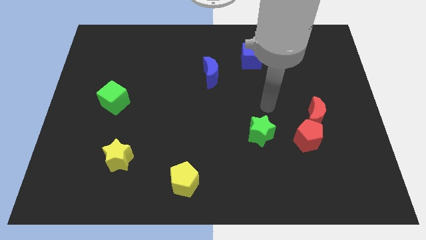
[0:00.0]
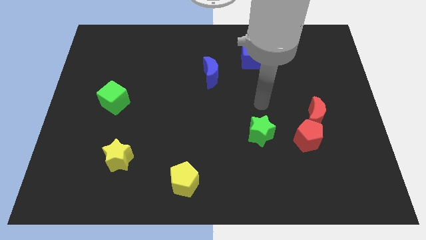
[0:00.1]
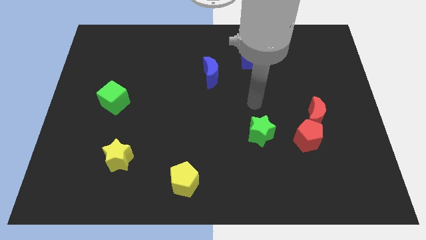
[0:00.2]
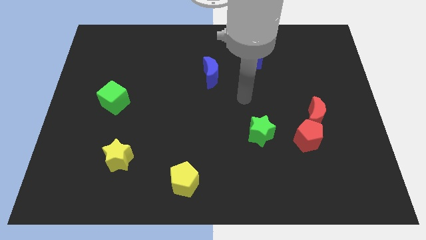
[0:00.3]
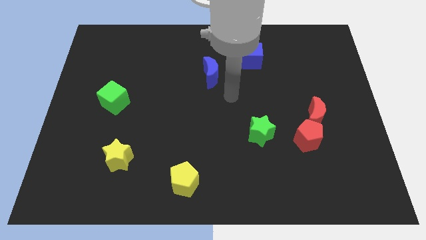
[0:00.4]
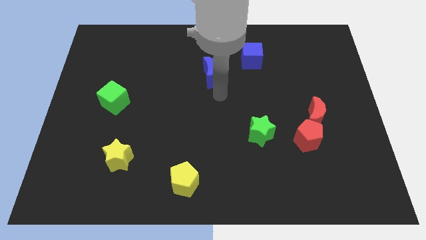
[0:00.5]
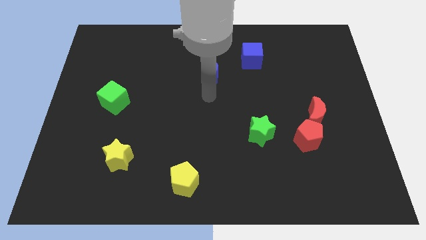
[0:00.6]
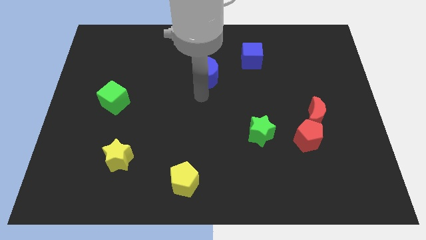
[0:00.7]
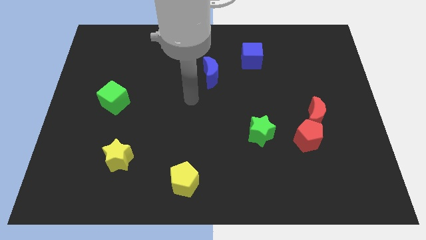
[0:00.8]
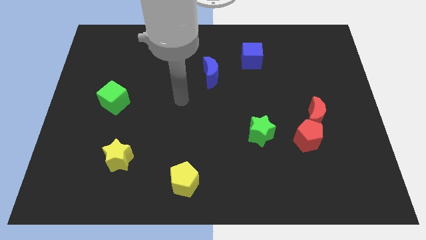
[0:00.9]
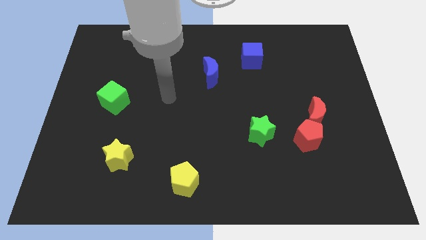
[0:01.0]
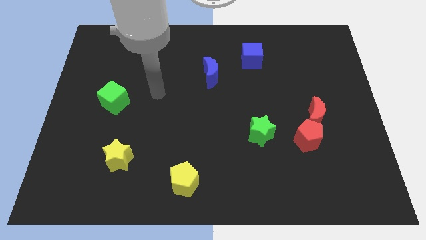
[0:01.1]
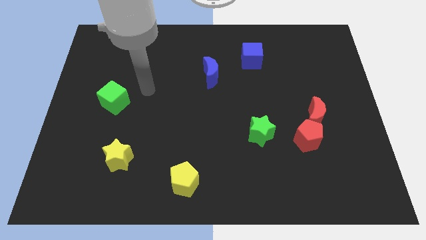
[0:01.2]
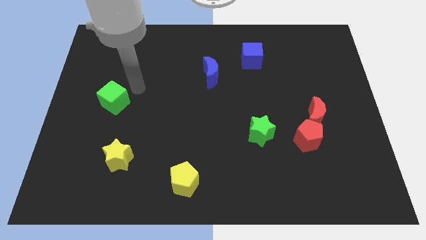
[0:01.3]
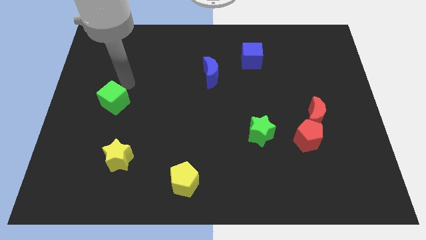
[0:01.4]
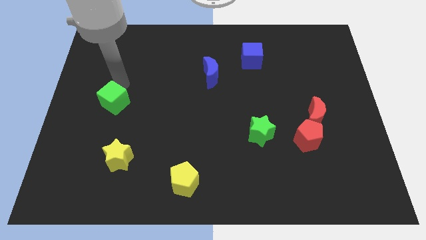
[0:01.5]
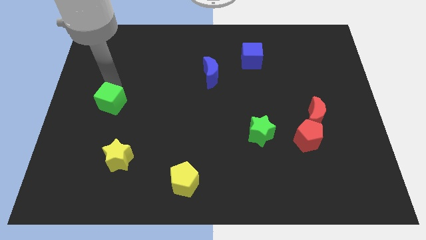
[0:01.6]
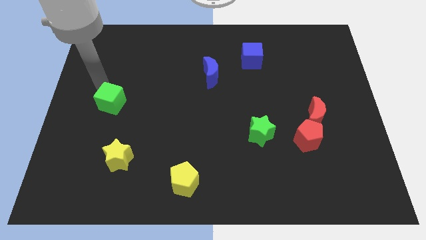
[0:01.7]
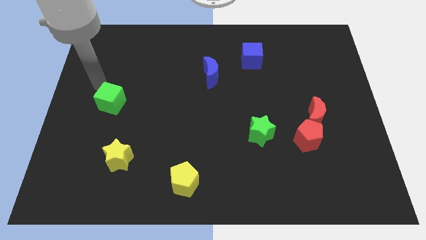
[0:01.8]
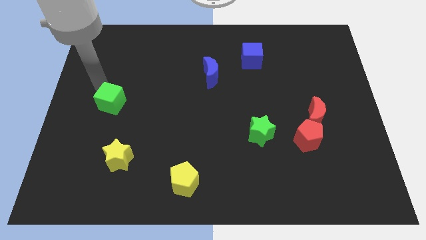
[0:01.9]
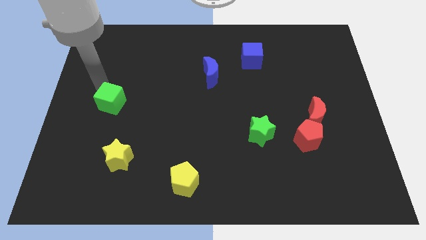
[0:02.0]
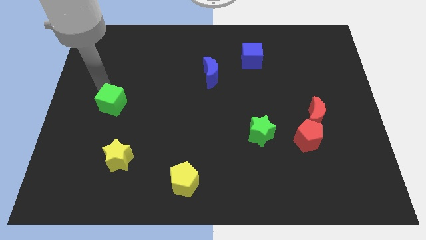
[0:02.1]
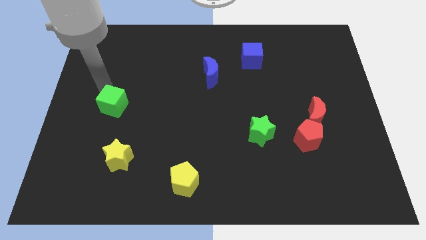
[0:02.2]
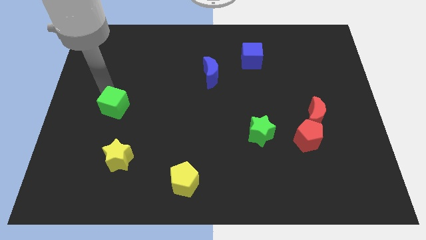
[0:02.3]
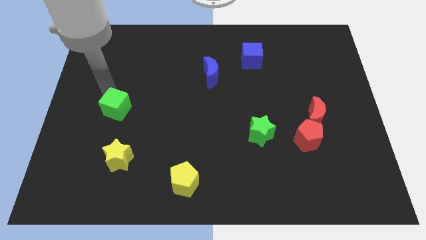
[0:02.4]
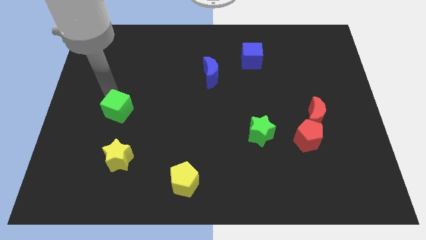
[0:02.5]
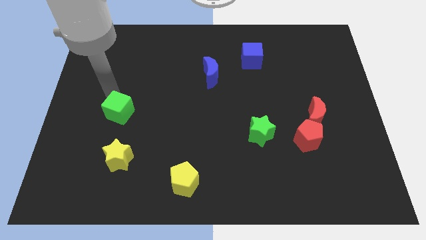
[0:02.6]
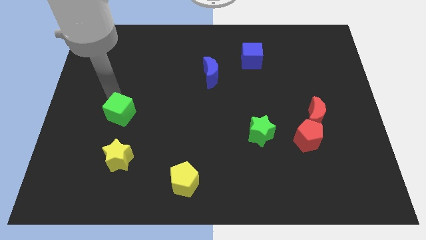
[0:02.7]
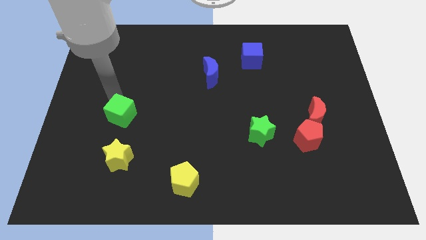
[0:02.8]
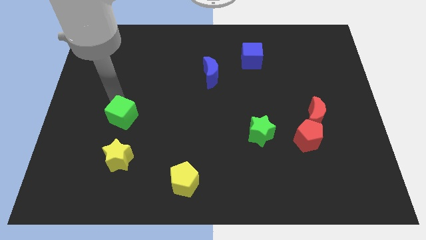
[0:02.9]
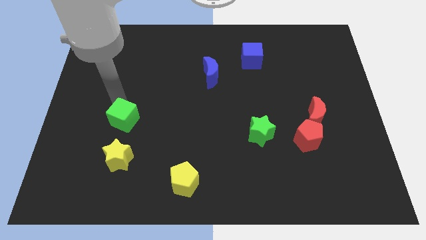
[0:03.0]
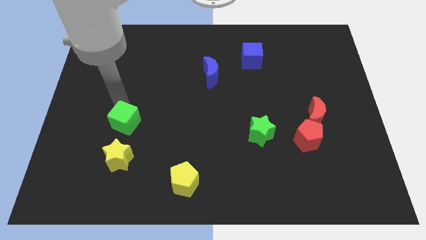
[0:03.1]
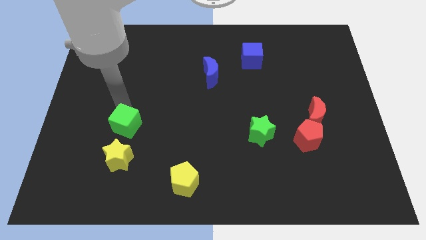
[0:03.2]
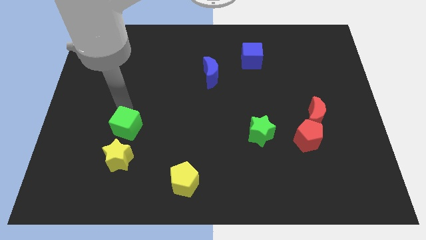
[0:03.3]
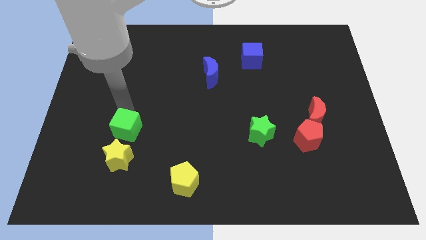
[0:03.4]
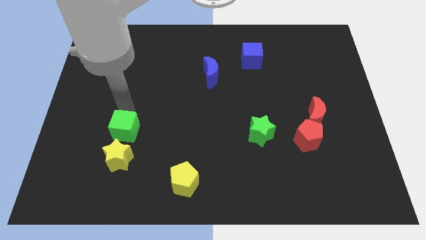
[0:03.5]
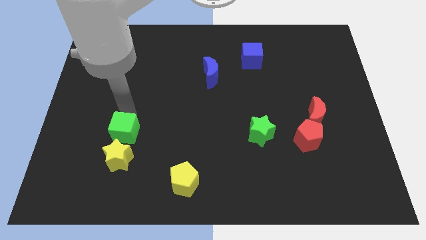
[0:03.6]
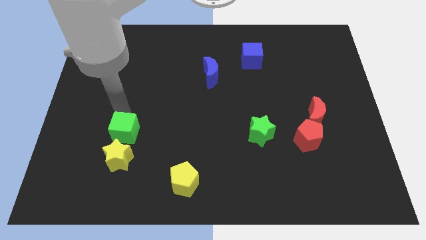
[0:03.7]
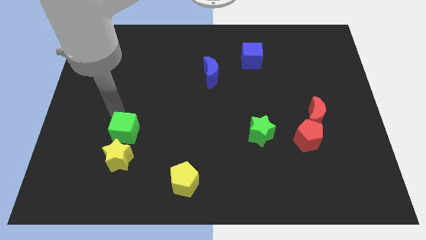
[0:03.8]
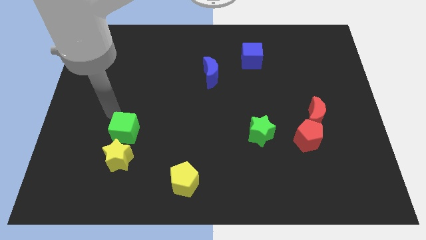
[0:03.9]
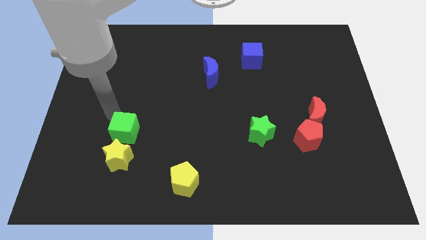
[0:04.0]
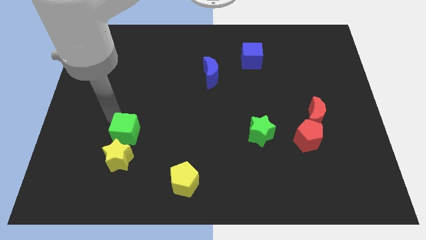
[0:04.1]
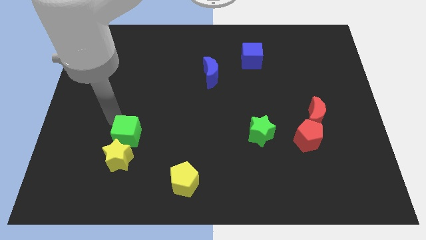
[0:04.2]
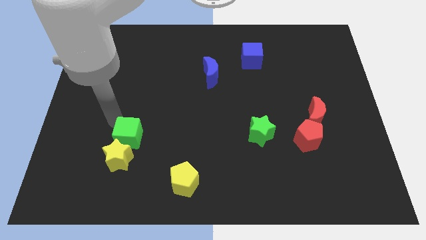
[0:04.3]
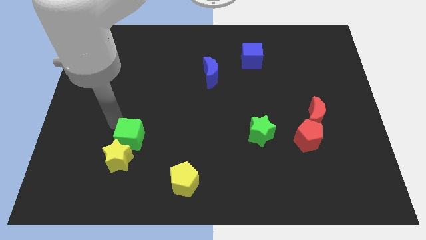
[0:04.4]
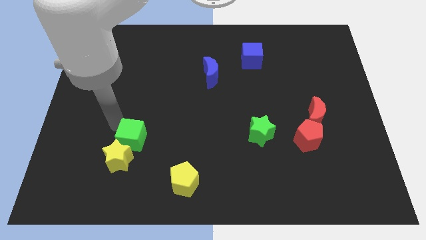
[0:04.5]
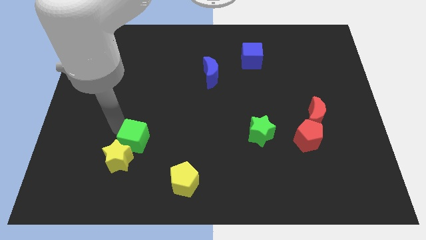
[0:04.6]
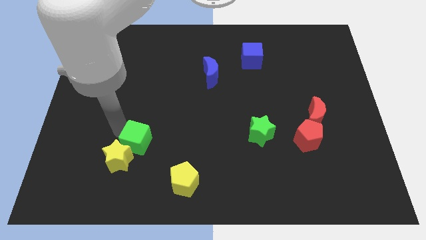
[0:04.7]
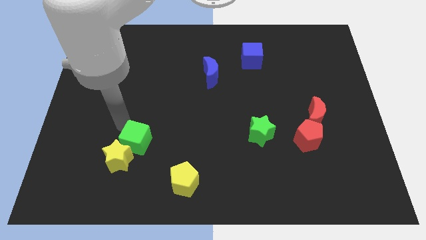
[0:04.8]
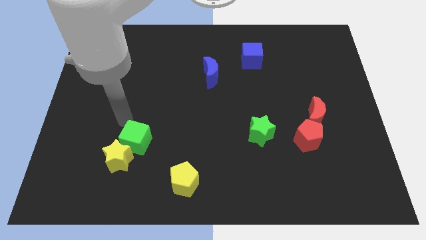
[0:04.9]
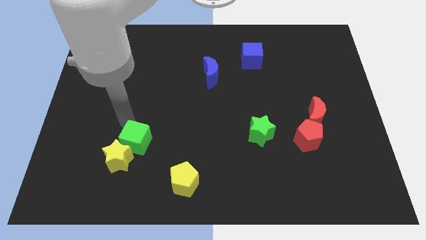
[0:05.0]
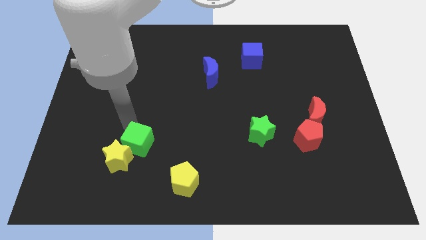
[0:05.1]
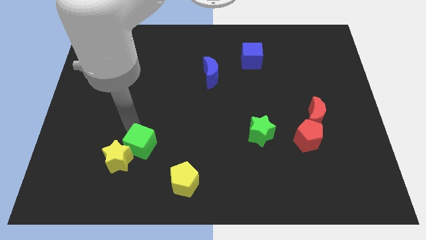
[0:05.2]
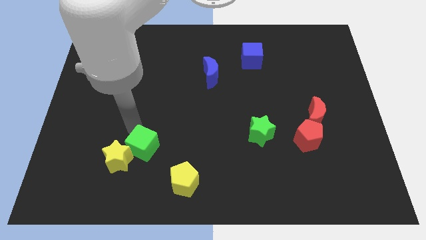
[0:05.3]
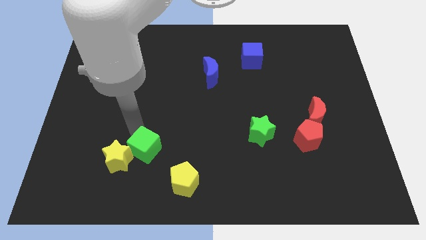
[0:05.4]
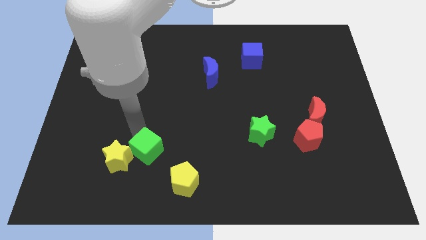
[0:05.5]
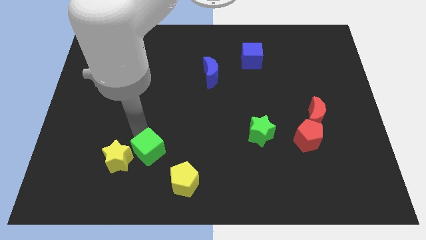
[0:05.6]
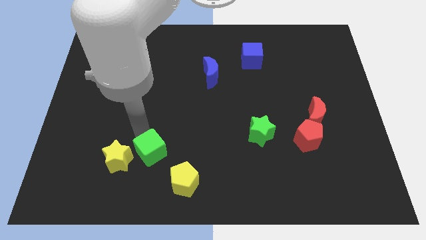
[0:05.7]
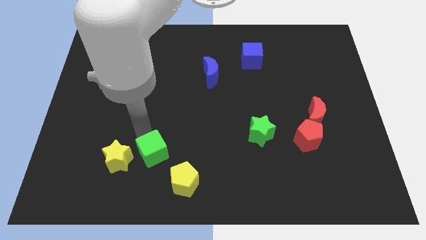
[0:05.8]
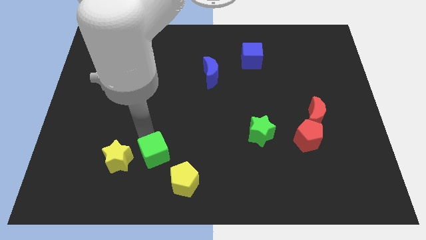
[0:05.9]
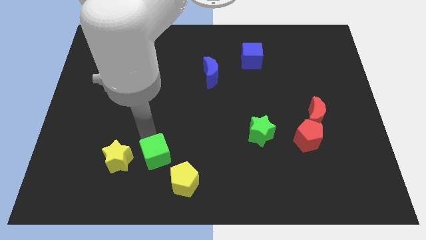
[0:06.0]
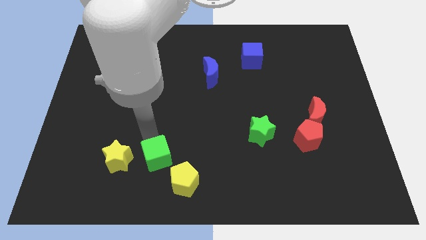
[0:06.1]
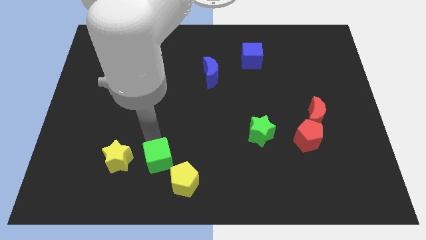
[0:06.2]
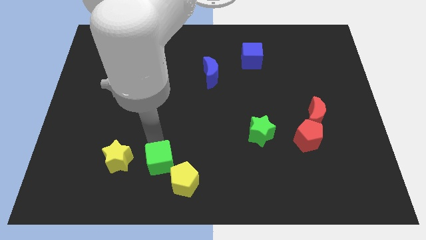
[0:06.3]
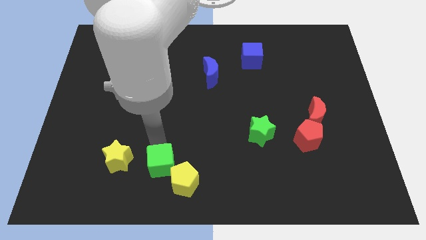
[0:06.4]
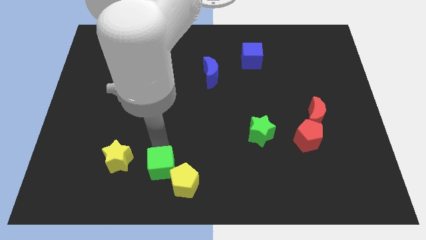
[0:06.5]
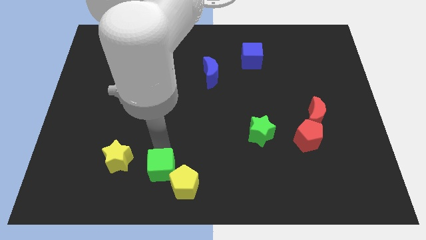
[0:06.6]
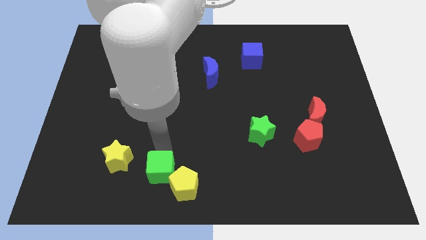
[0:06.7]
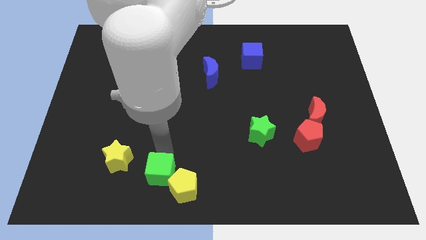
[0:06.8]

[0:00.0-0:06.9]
put the green cube to the bottom
